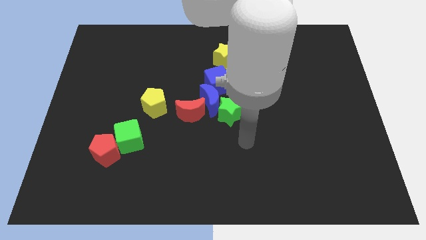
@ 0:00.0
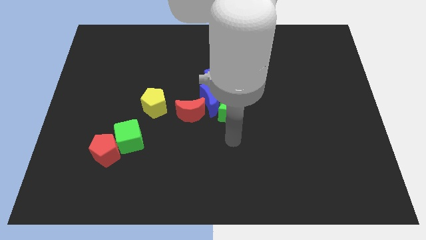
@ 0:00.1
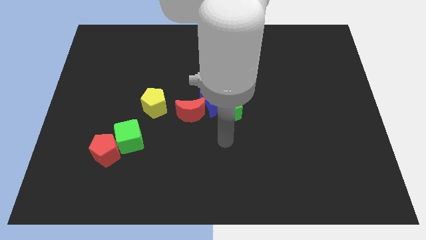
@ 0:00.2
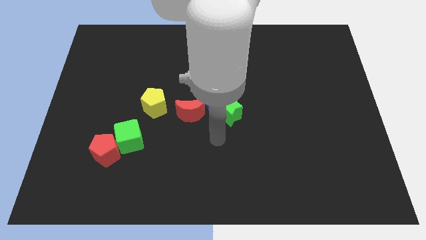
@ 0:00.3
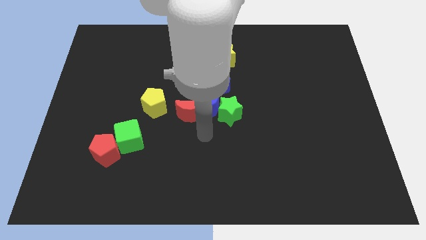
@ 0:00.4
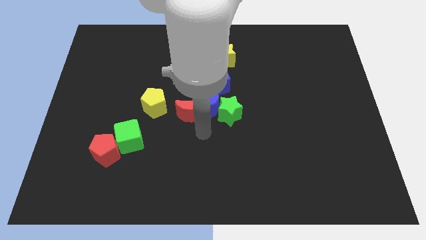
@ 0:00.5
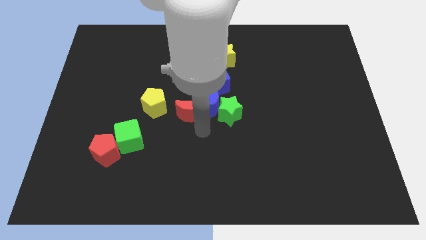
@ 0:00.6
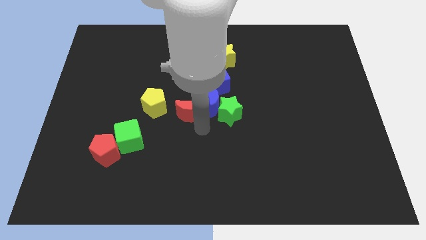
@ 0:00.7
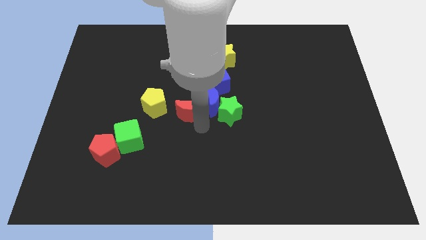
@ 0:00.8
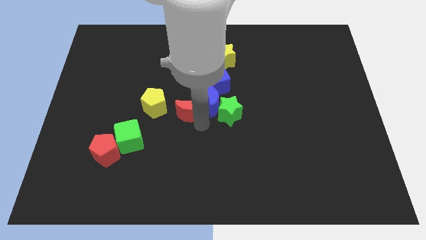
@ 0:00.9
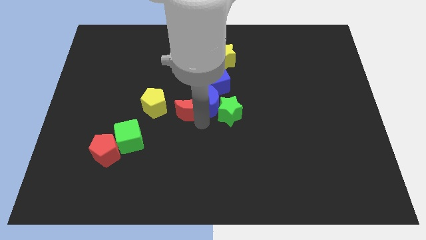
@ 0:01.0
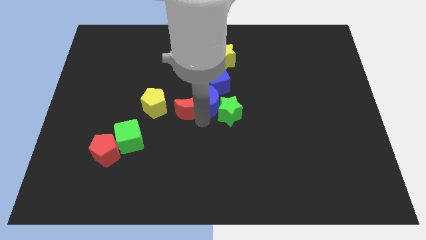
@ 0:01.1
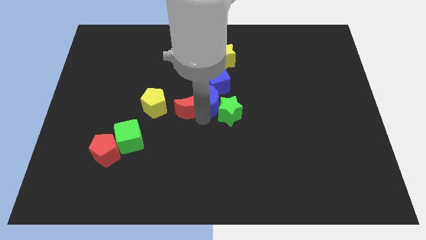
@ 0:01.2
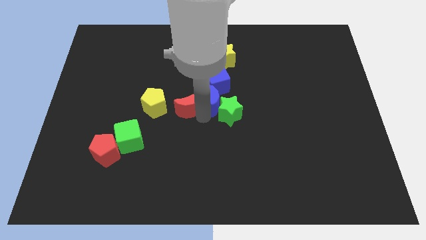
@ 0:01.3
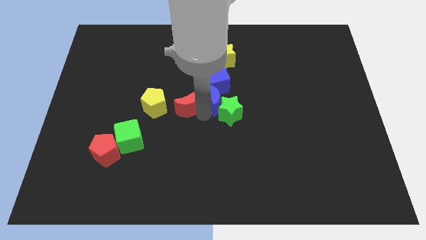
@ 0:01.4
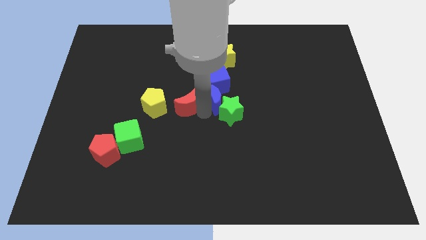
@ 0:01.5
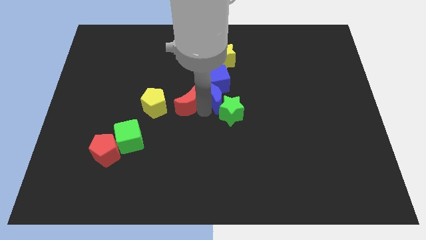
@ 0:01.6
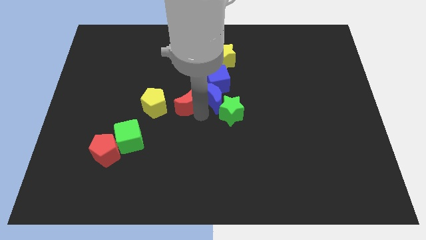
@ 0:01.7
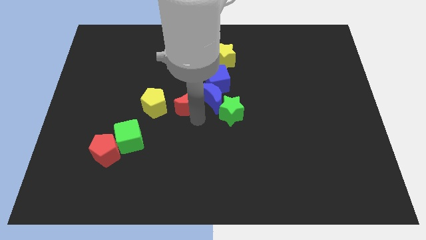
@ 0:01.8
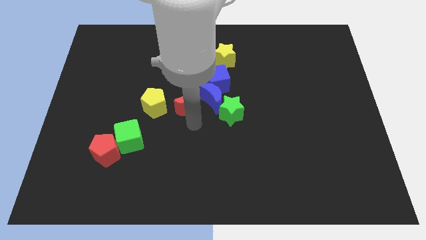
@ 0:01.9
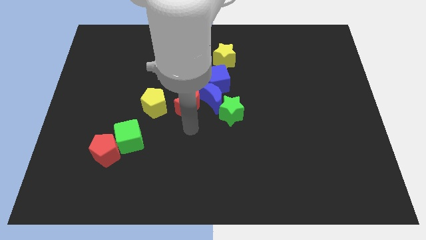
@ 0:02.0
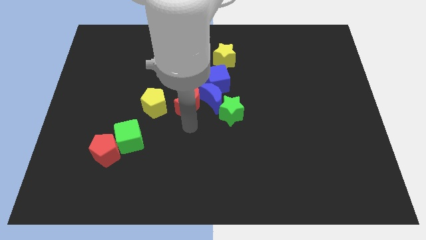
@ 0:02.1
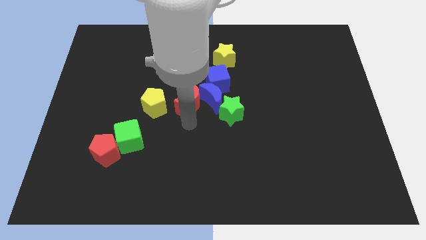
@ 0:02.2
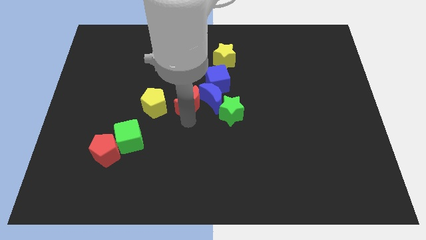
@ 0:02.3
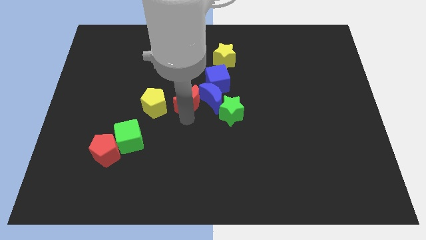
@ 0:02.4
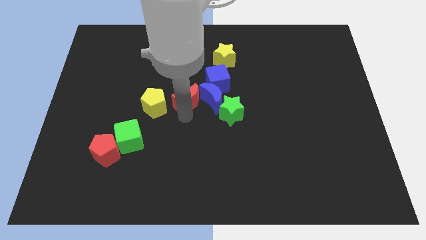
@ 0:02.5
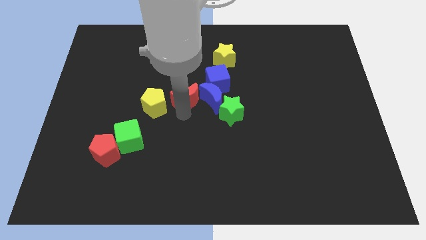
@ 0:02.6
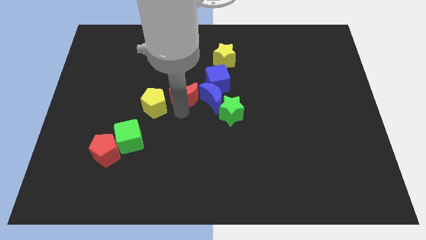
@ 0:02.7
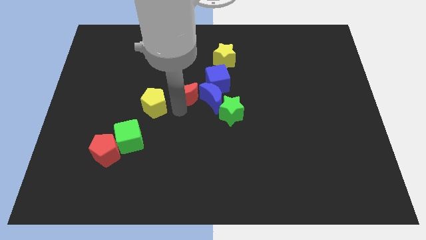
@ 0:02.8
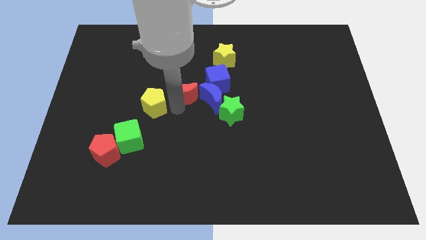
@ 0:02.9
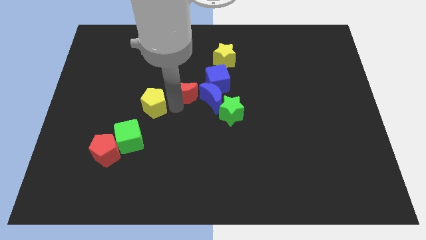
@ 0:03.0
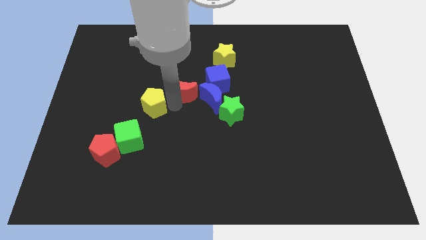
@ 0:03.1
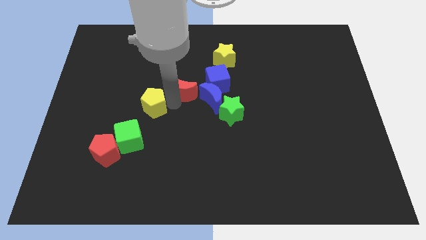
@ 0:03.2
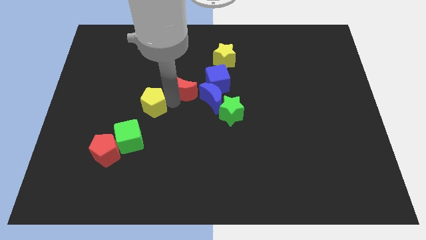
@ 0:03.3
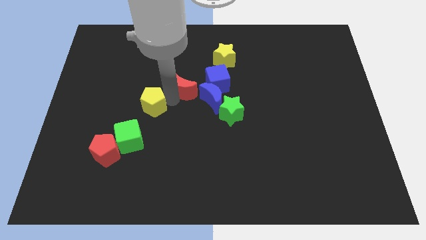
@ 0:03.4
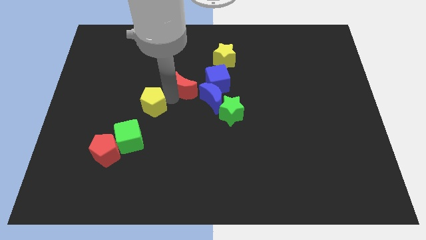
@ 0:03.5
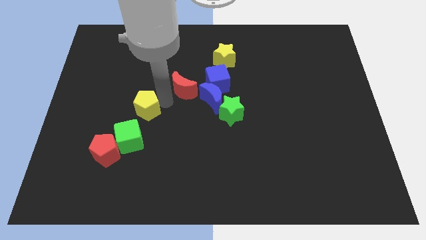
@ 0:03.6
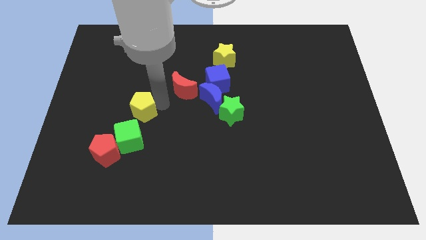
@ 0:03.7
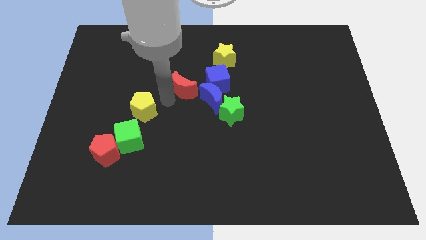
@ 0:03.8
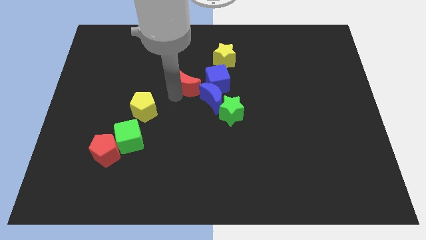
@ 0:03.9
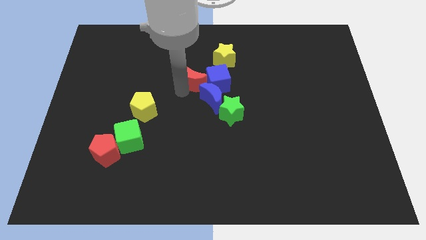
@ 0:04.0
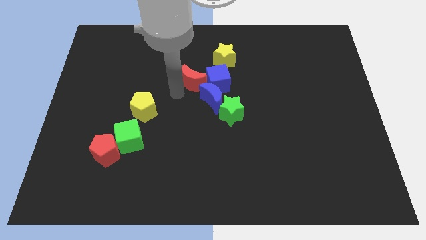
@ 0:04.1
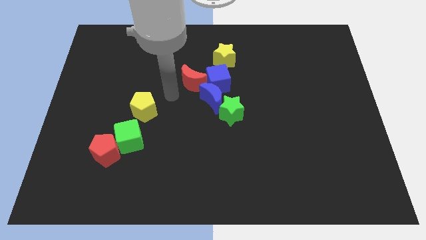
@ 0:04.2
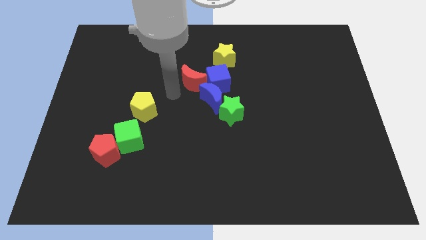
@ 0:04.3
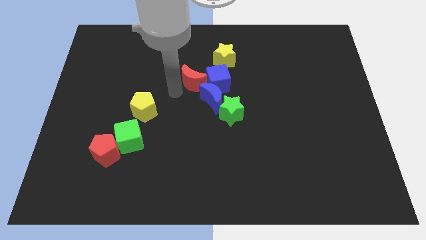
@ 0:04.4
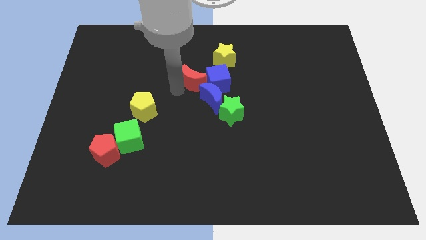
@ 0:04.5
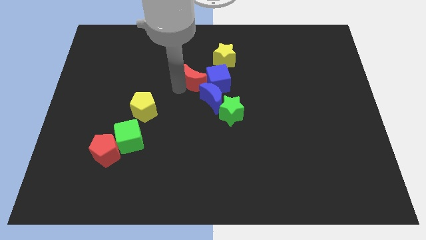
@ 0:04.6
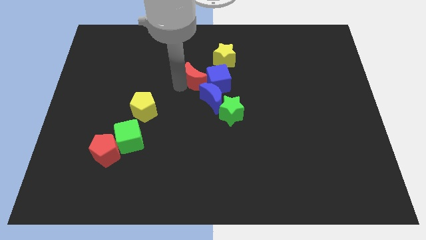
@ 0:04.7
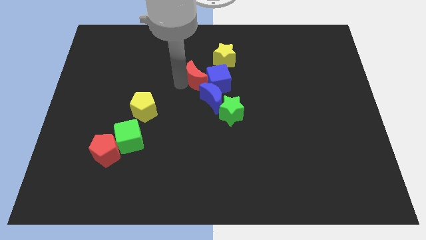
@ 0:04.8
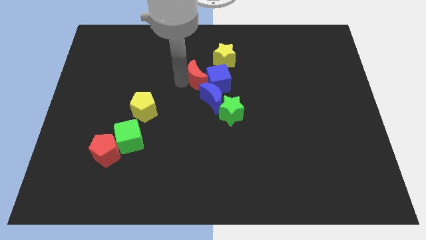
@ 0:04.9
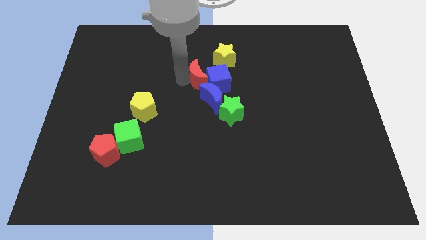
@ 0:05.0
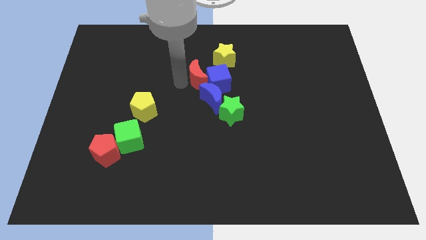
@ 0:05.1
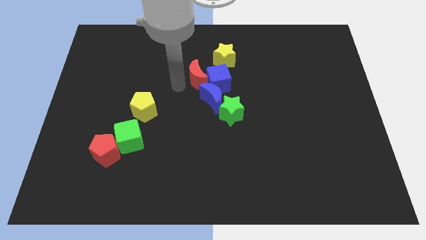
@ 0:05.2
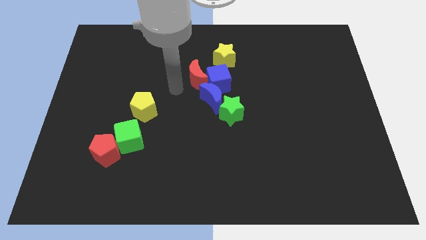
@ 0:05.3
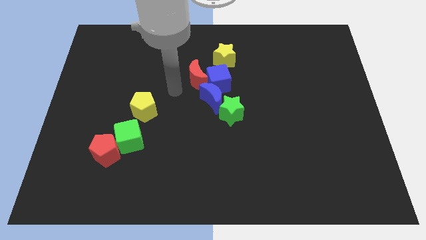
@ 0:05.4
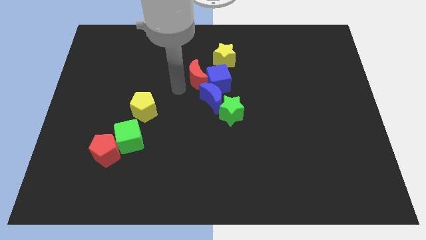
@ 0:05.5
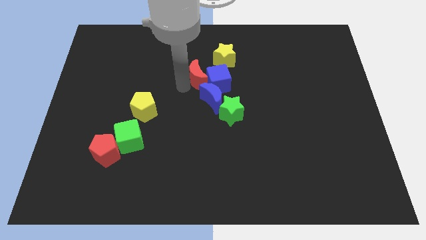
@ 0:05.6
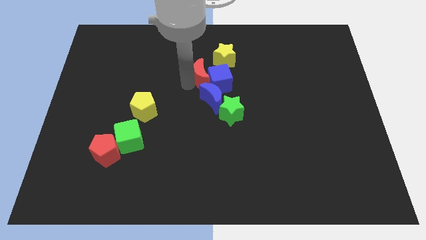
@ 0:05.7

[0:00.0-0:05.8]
slide the red moon a bit up and to the right

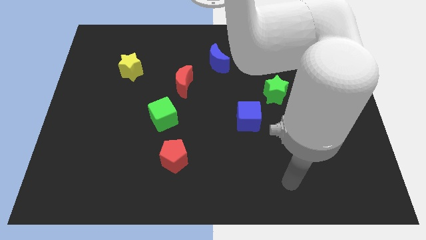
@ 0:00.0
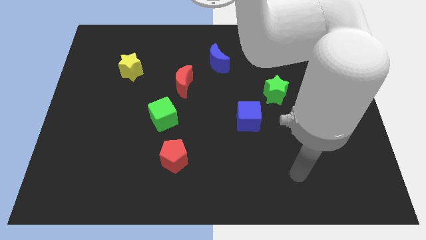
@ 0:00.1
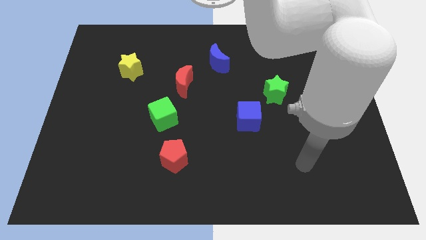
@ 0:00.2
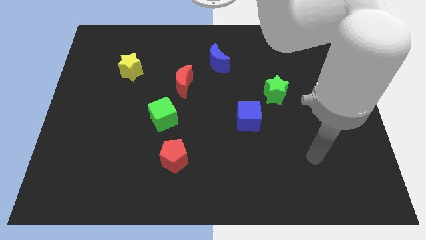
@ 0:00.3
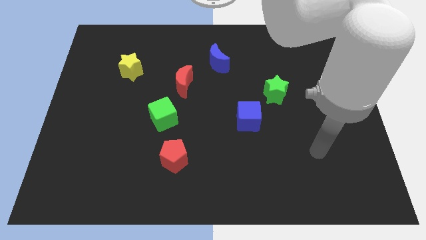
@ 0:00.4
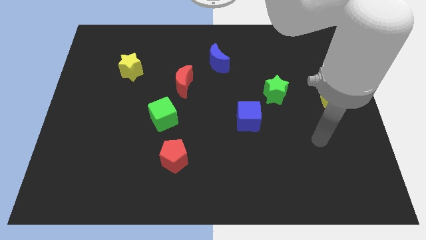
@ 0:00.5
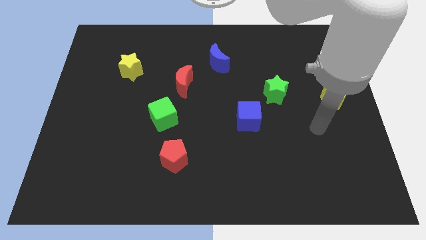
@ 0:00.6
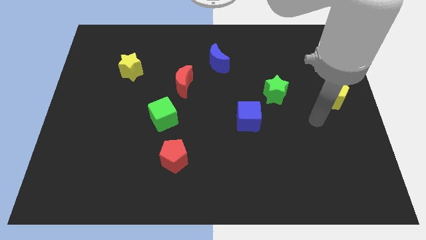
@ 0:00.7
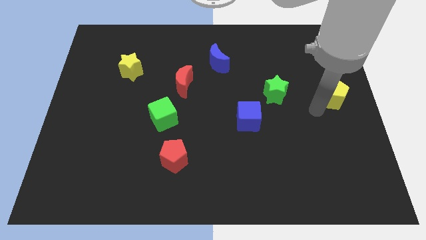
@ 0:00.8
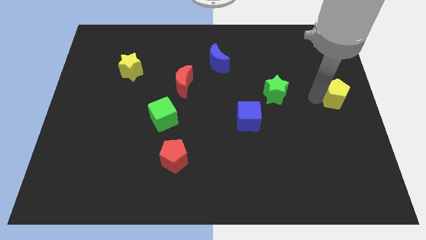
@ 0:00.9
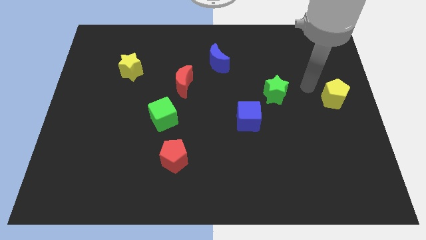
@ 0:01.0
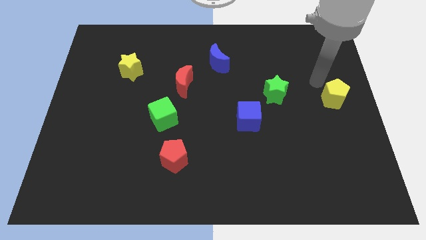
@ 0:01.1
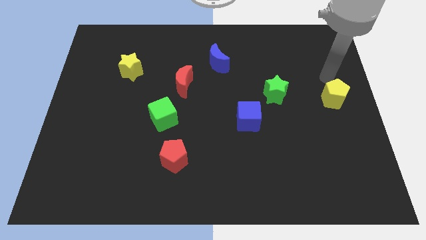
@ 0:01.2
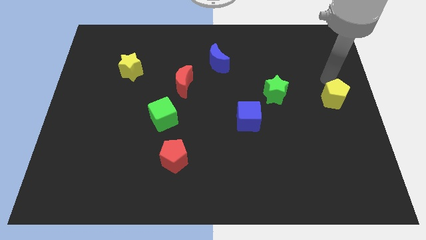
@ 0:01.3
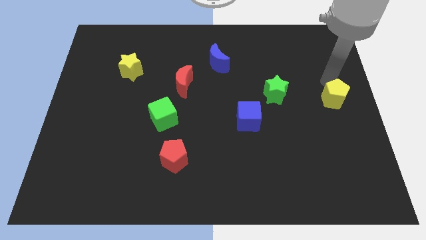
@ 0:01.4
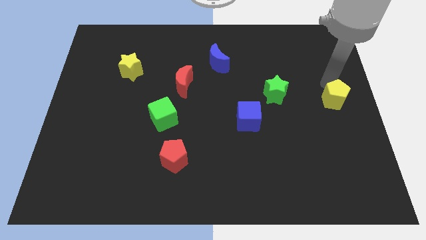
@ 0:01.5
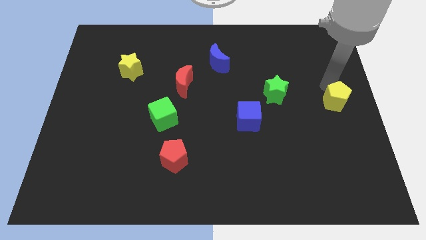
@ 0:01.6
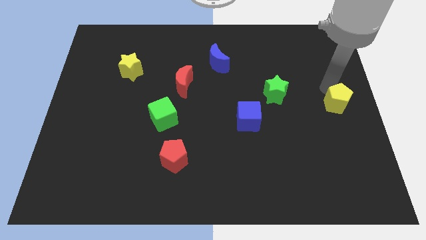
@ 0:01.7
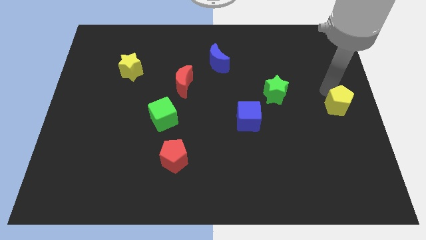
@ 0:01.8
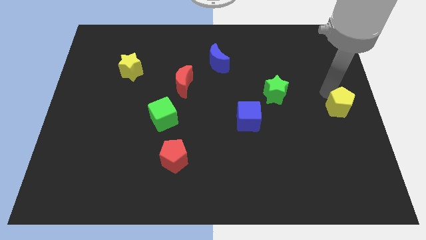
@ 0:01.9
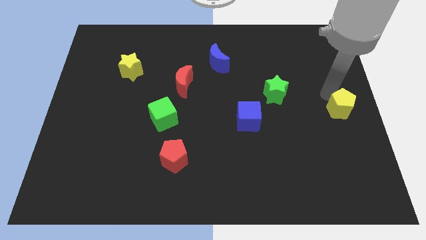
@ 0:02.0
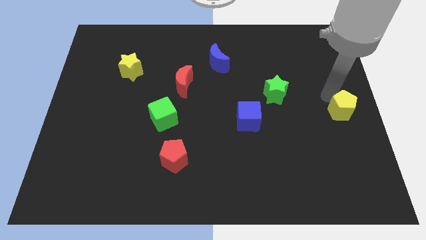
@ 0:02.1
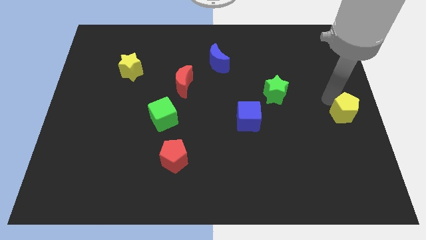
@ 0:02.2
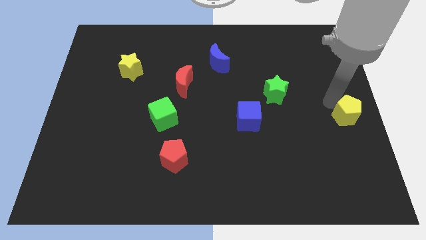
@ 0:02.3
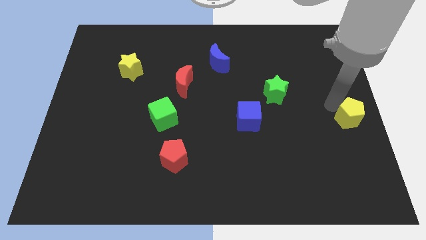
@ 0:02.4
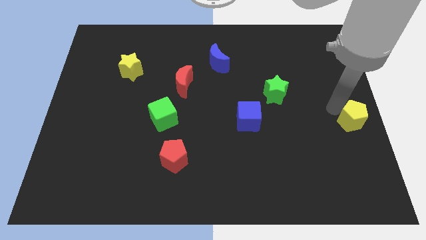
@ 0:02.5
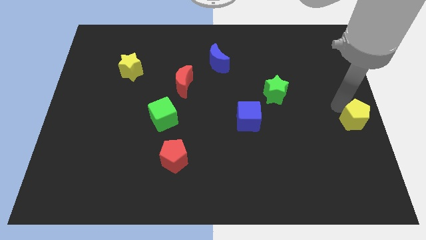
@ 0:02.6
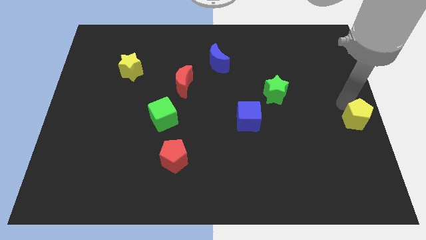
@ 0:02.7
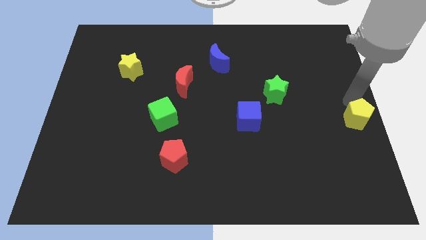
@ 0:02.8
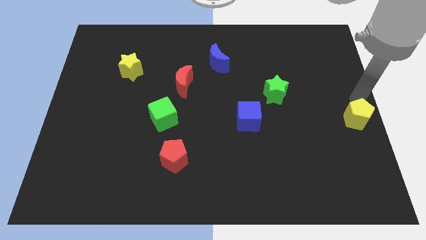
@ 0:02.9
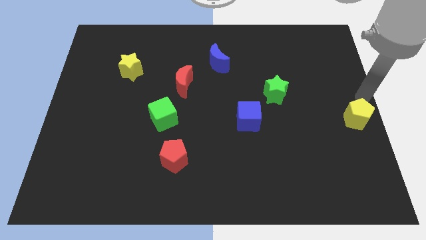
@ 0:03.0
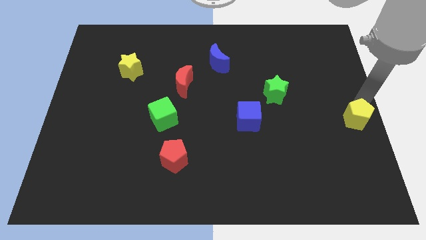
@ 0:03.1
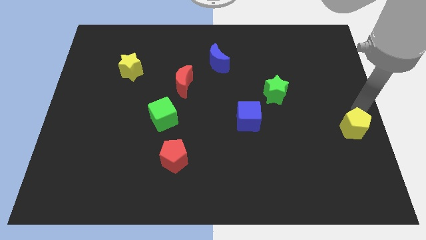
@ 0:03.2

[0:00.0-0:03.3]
slide the yellow pentagon somewhat downwards
